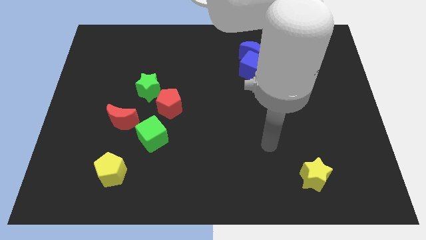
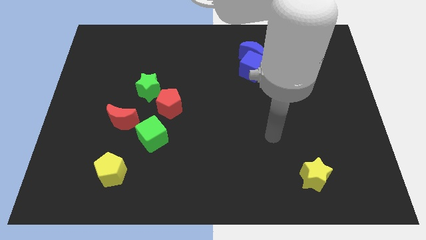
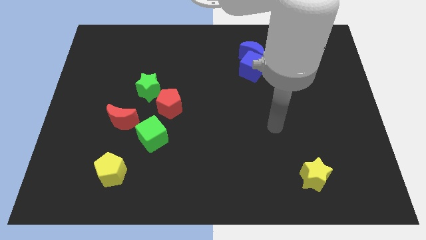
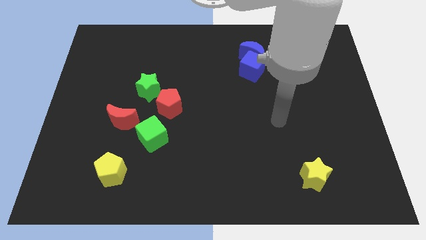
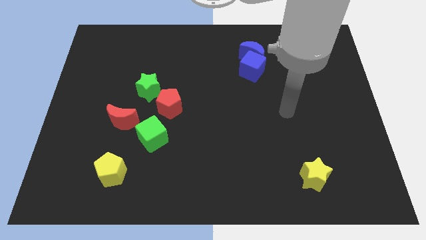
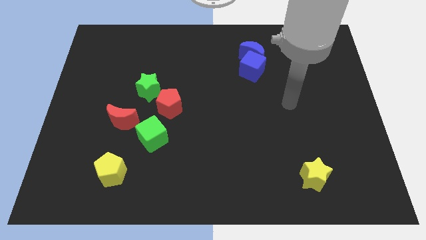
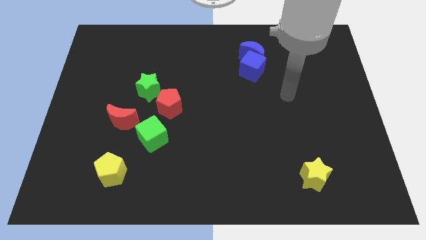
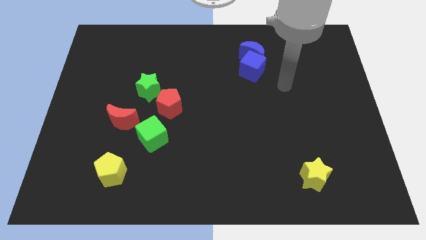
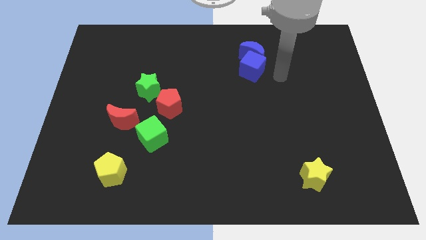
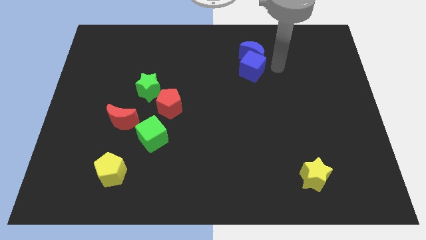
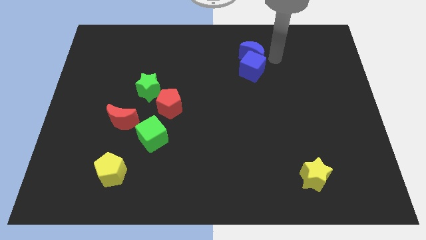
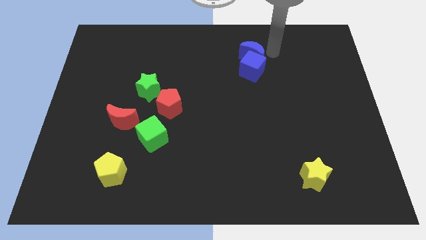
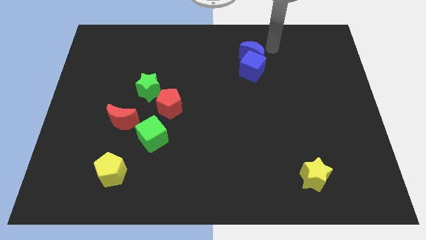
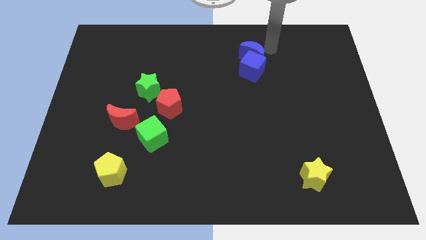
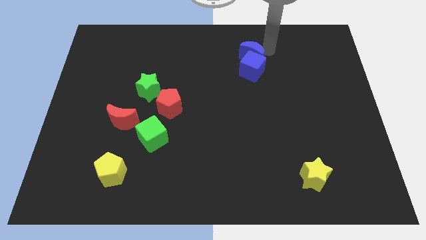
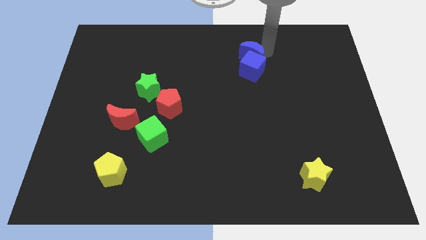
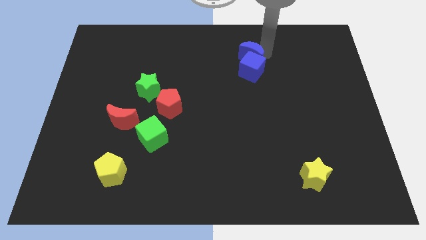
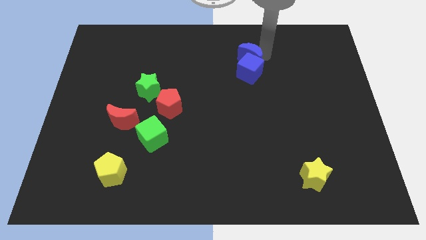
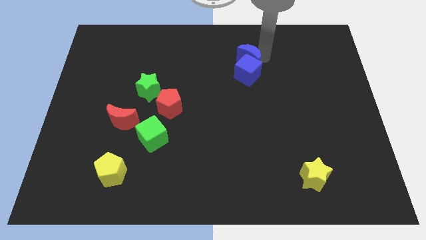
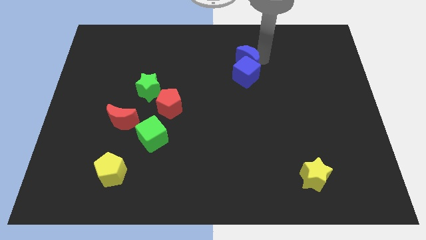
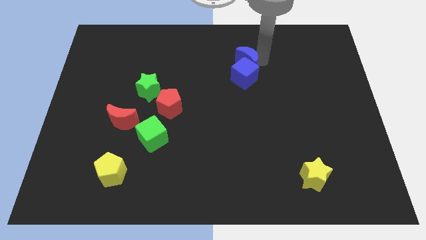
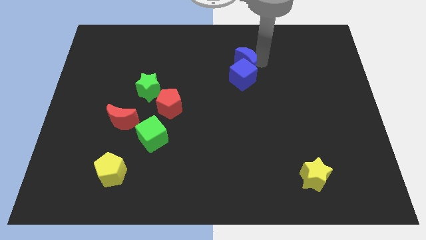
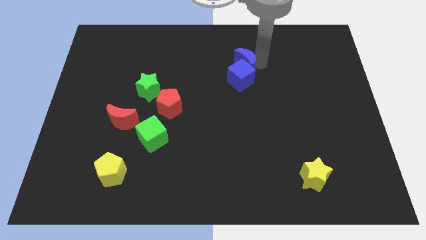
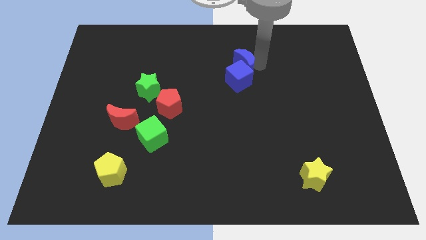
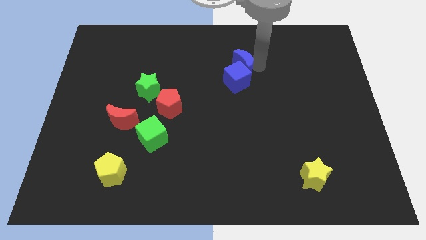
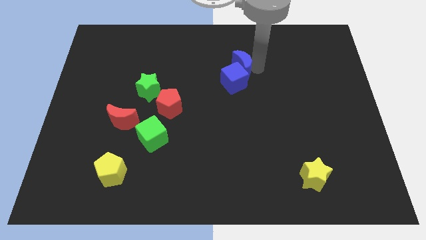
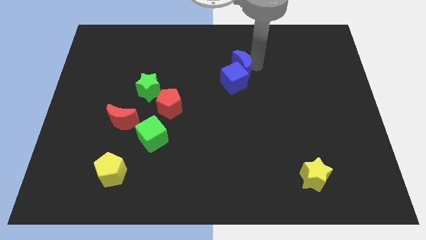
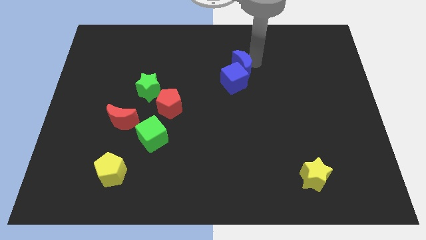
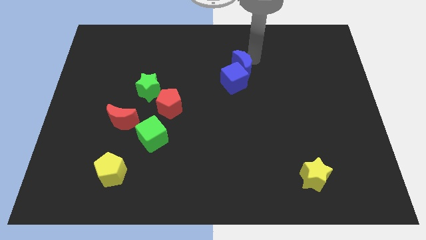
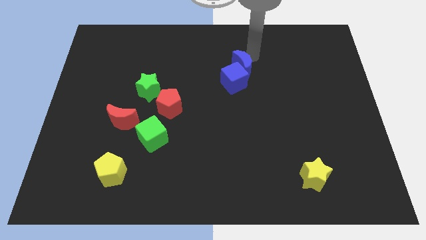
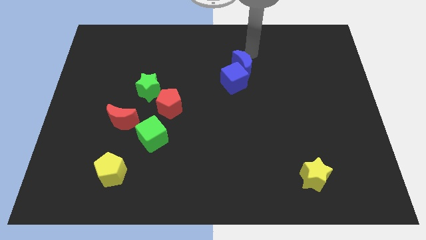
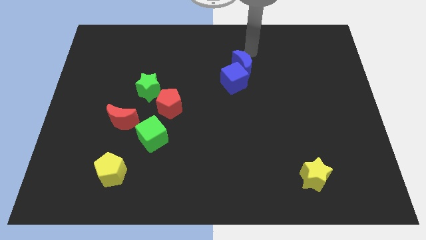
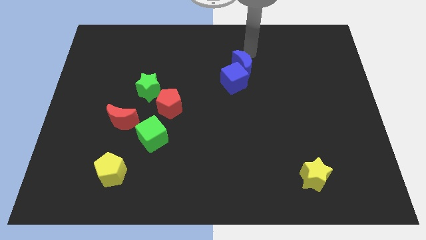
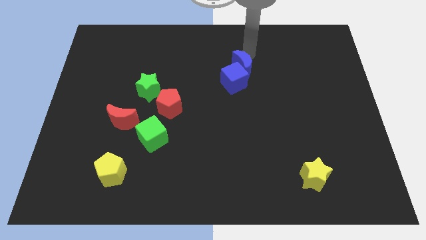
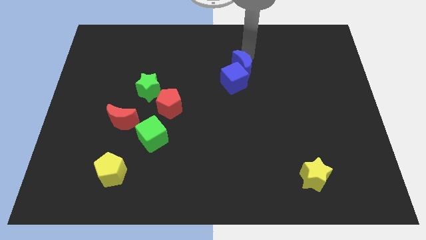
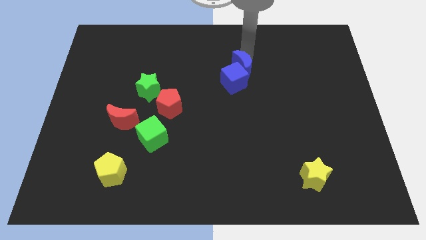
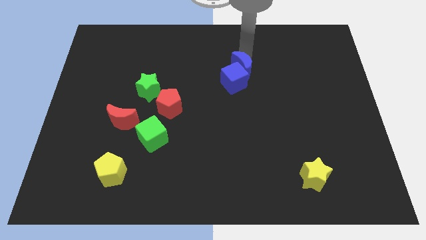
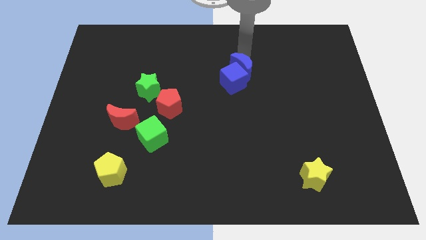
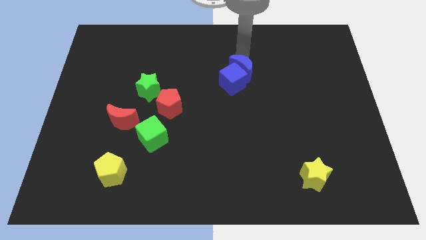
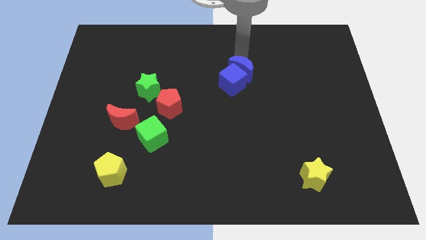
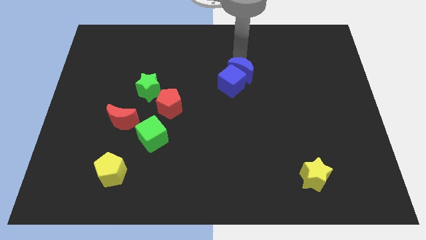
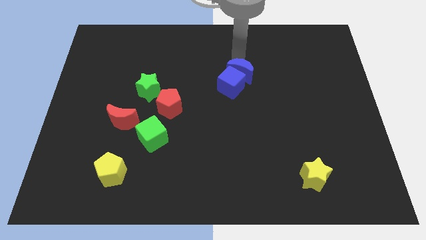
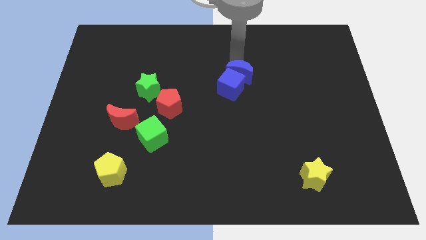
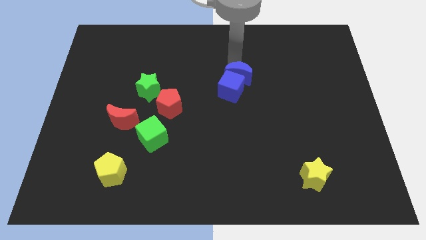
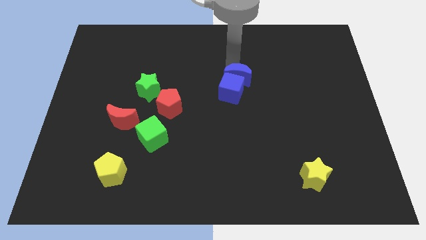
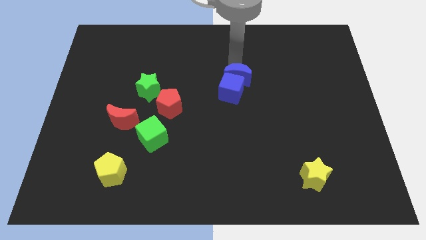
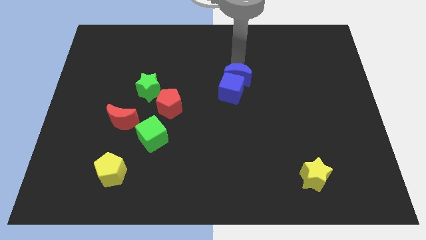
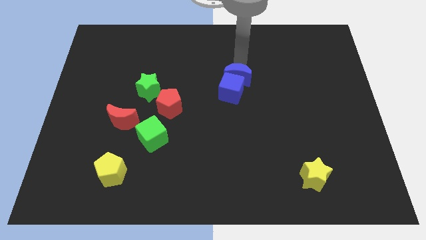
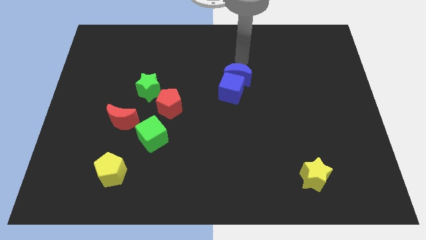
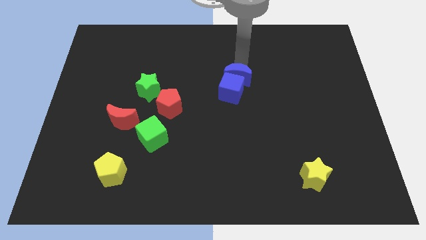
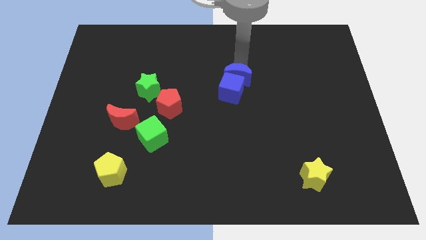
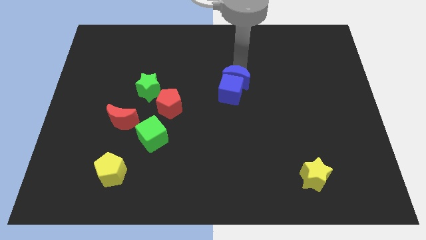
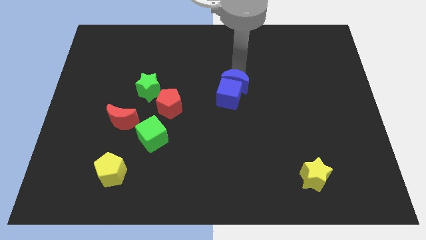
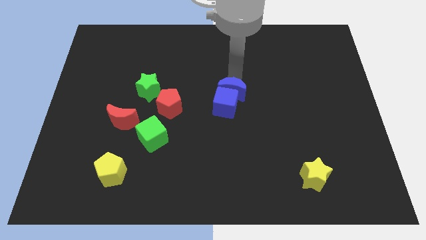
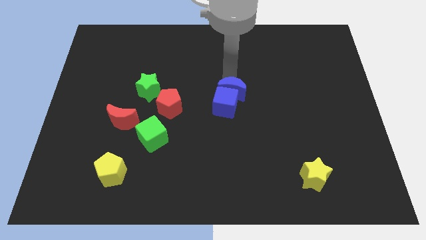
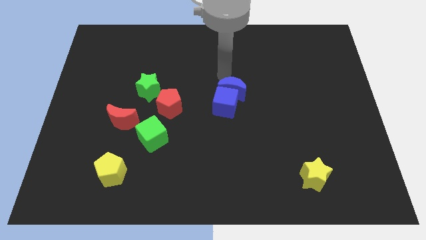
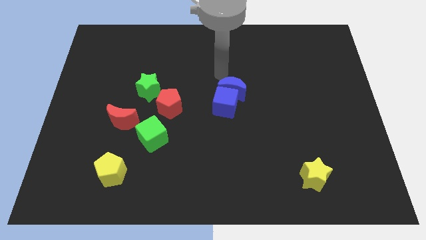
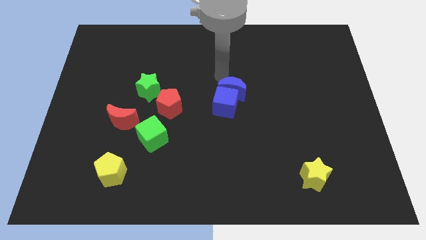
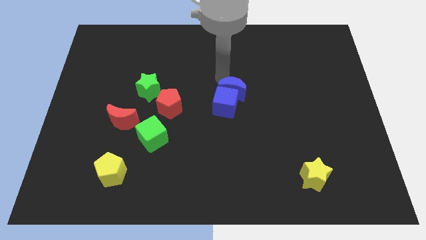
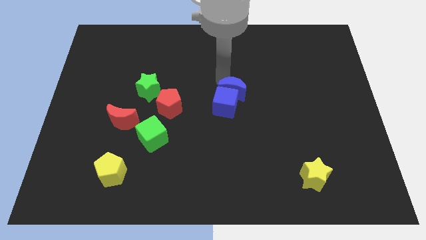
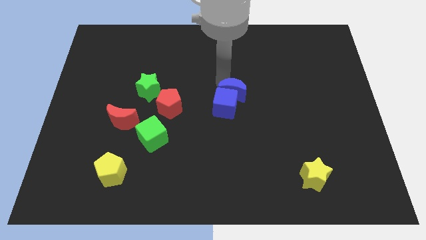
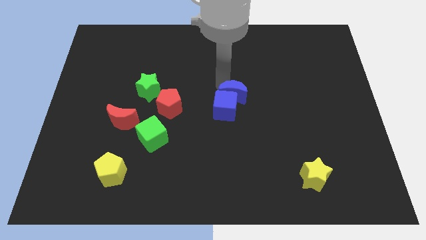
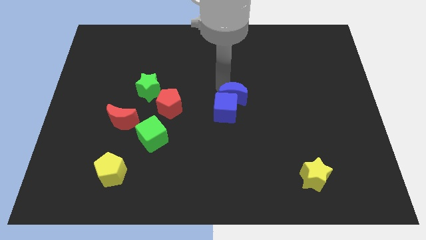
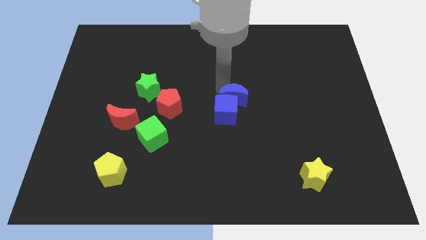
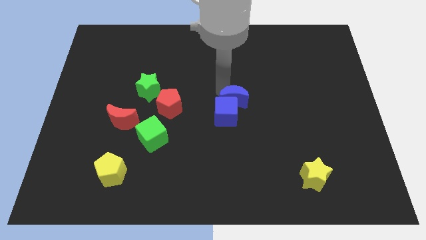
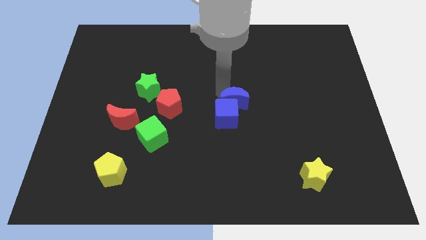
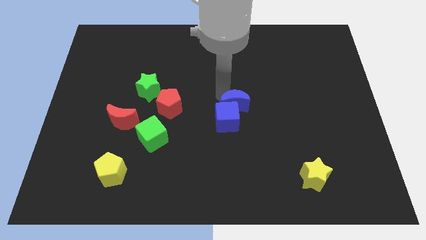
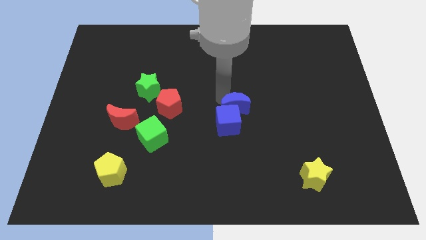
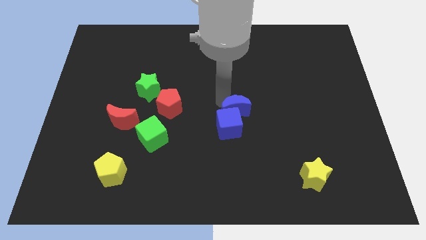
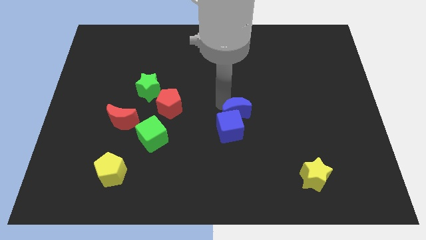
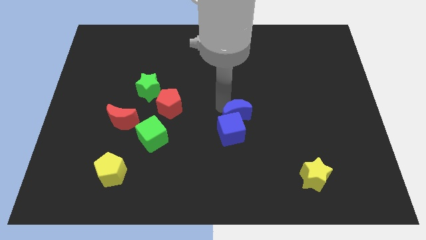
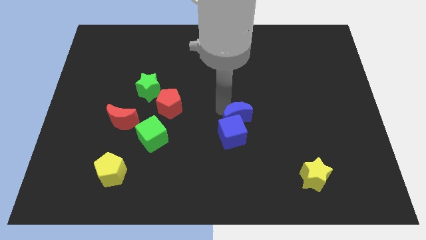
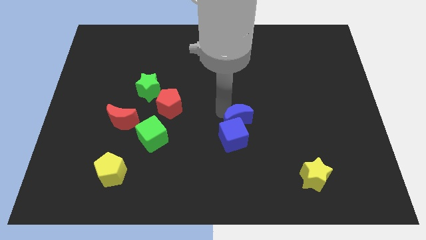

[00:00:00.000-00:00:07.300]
move the blue moon down

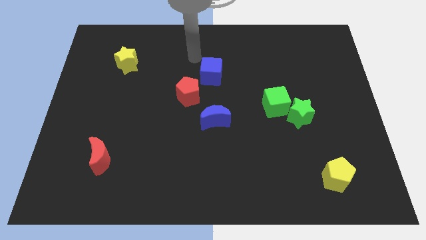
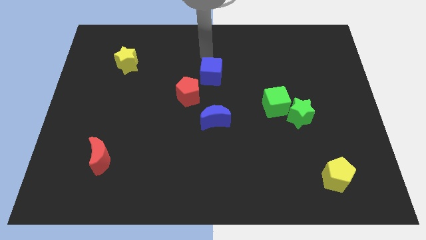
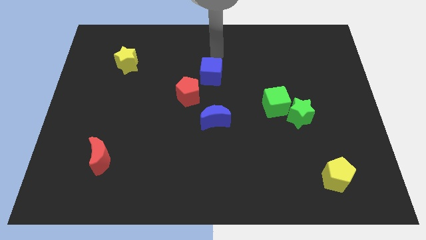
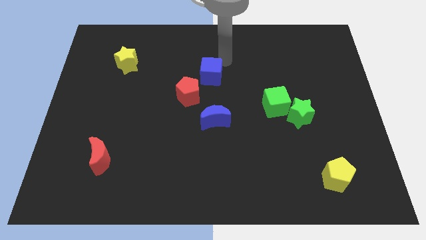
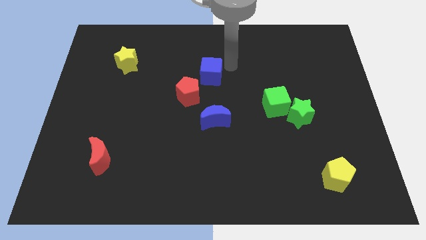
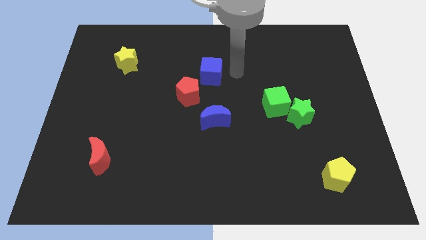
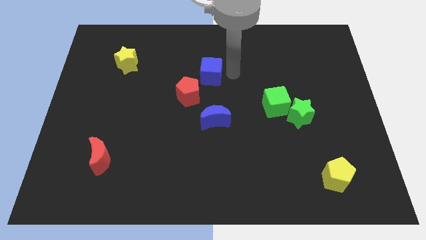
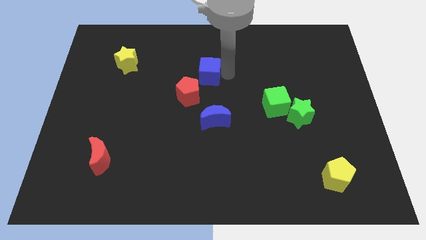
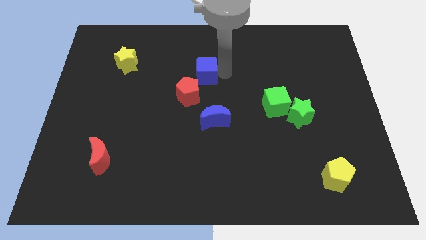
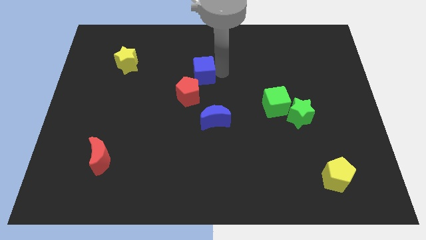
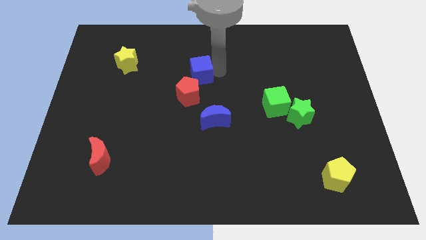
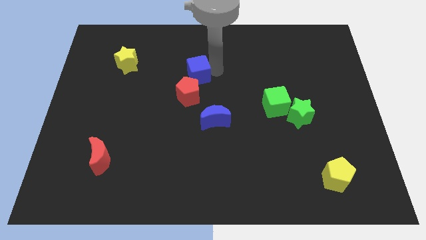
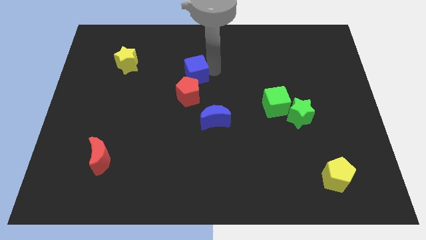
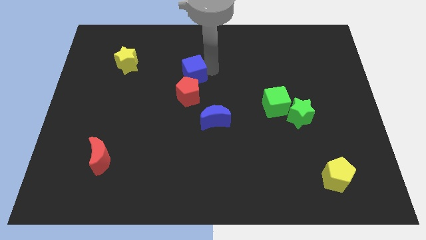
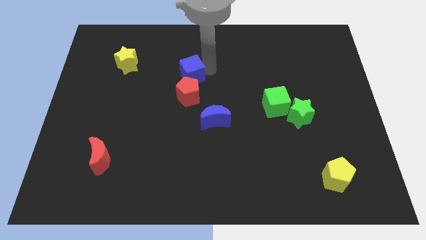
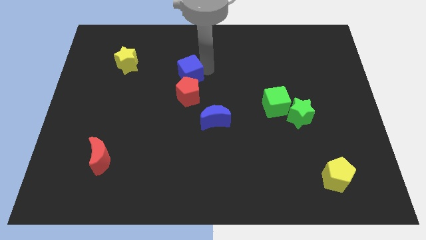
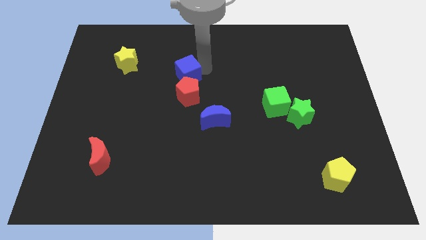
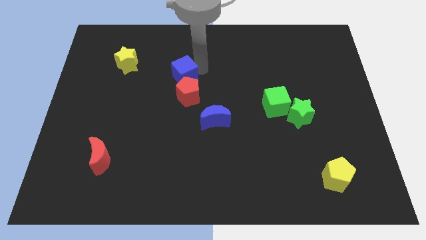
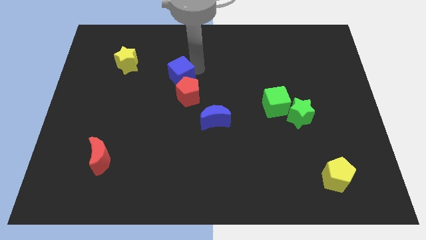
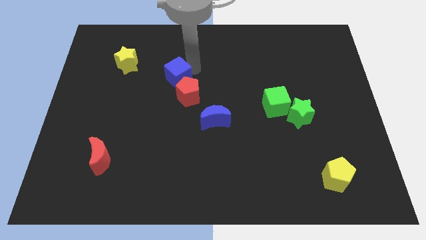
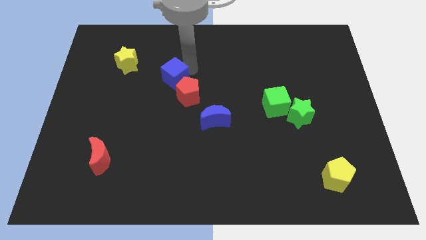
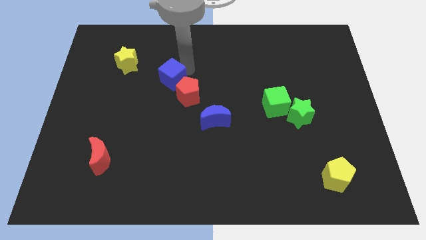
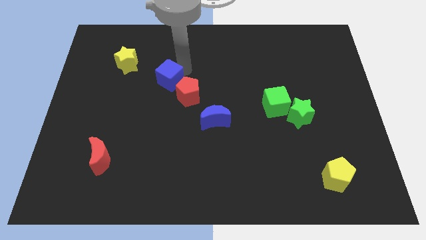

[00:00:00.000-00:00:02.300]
slightly move the blue cube down and then left
